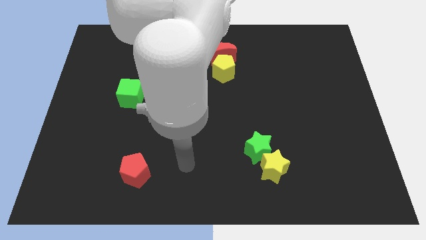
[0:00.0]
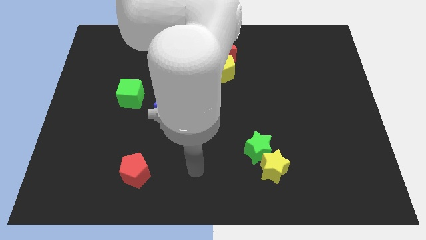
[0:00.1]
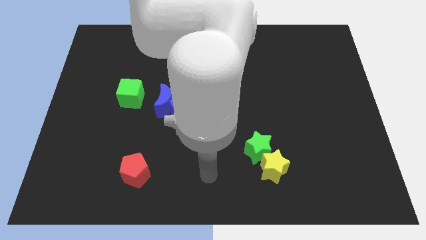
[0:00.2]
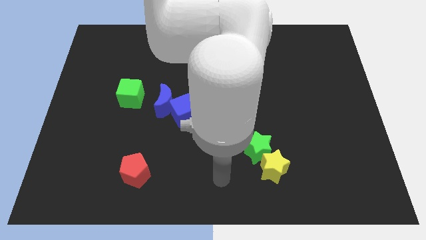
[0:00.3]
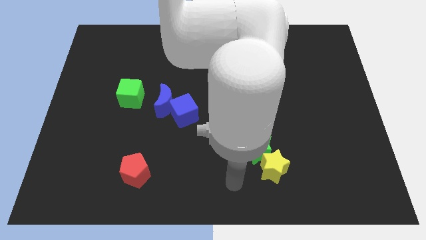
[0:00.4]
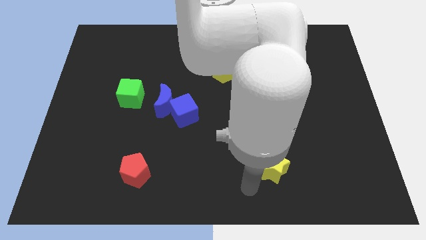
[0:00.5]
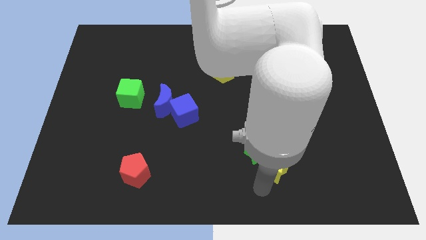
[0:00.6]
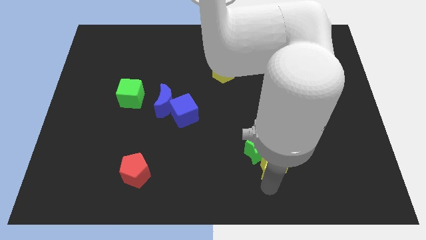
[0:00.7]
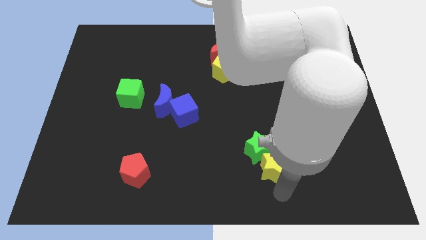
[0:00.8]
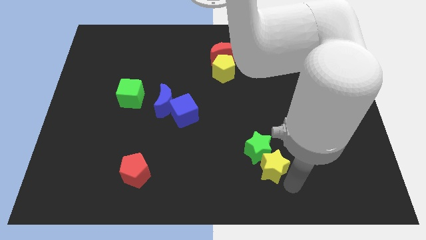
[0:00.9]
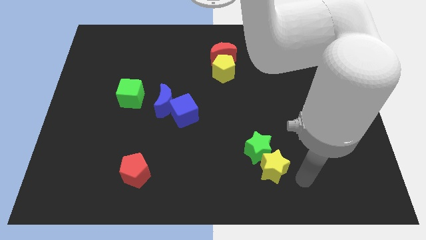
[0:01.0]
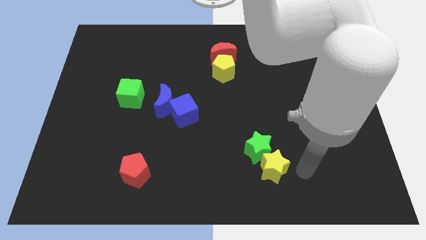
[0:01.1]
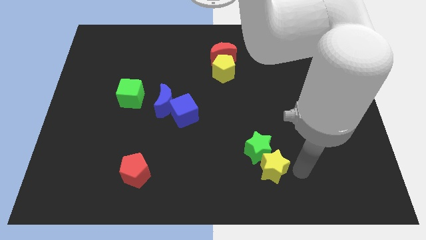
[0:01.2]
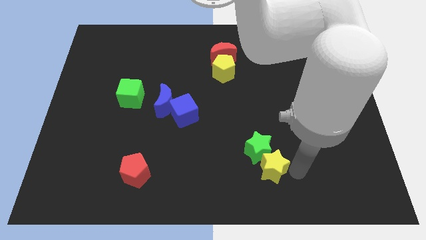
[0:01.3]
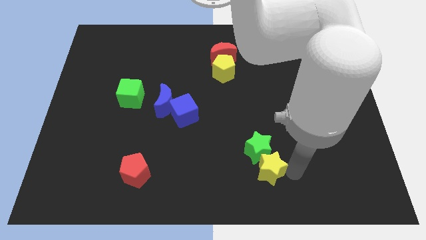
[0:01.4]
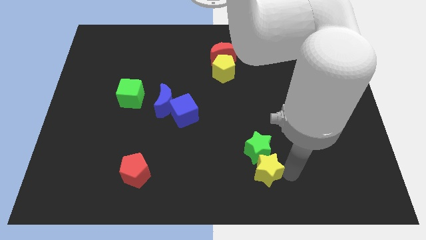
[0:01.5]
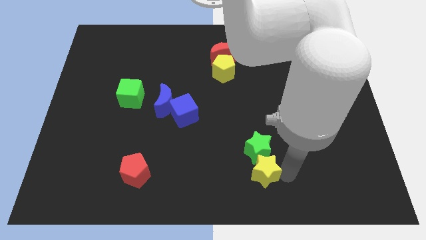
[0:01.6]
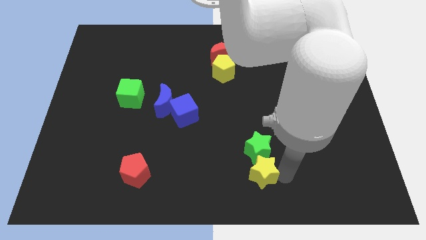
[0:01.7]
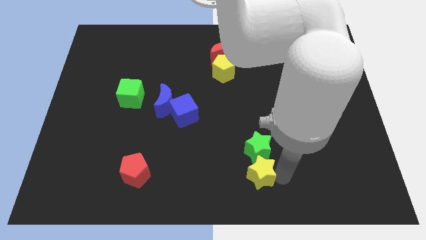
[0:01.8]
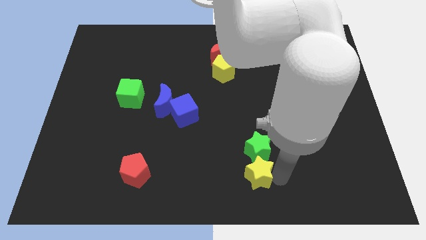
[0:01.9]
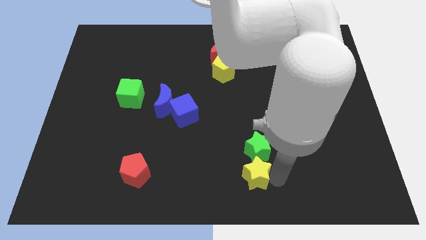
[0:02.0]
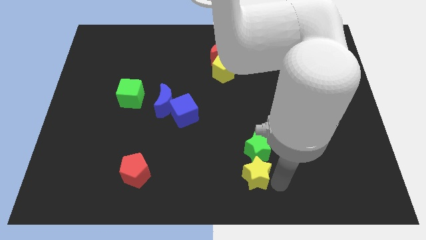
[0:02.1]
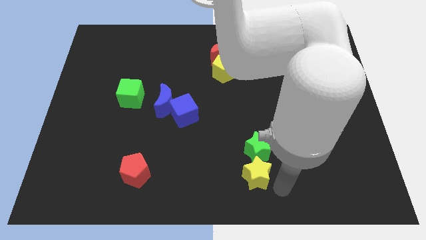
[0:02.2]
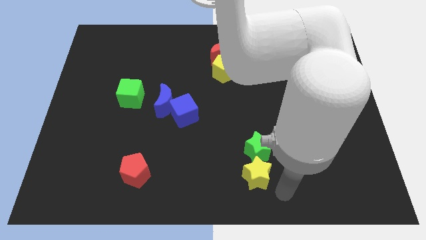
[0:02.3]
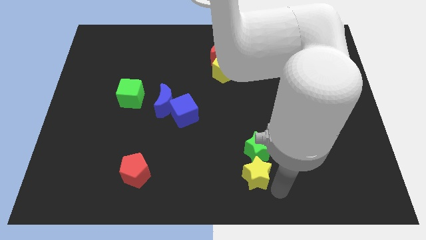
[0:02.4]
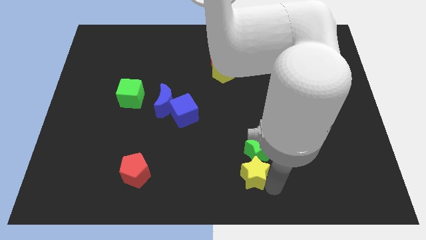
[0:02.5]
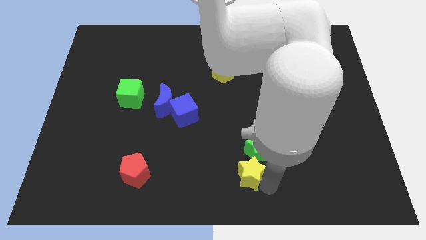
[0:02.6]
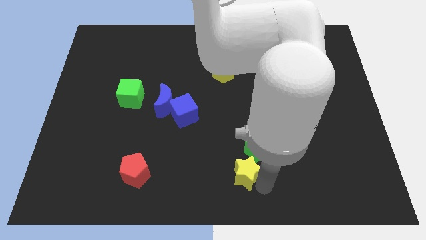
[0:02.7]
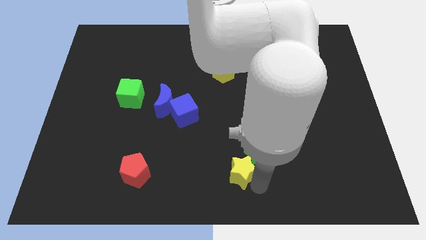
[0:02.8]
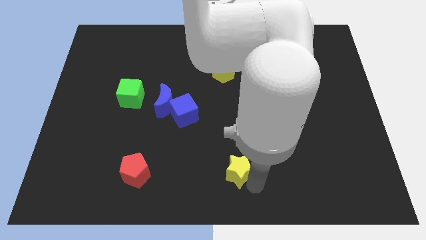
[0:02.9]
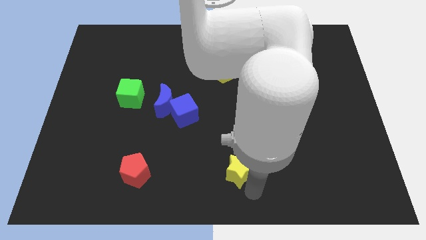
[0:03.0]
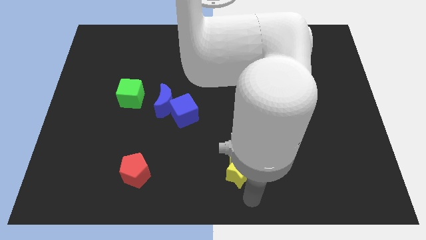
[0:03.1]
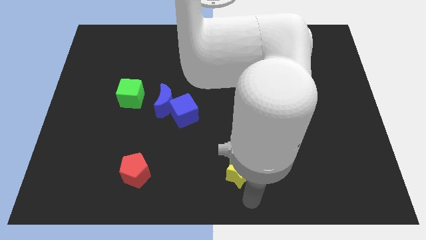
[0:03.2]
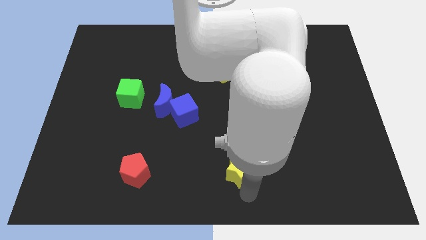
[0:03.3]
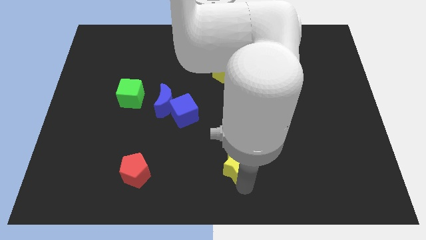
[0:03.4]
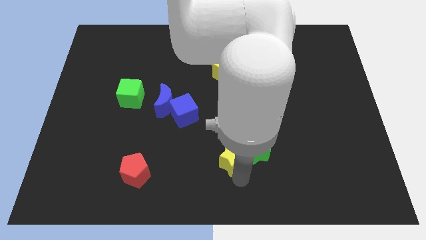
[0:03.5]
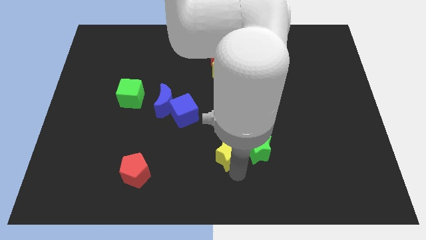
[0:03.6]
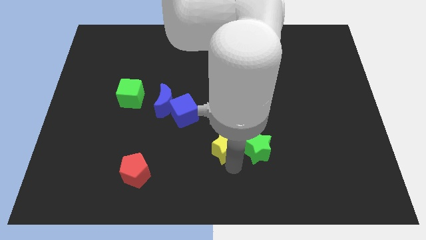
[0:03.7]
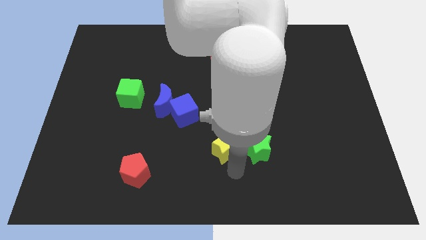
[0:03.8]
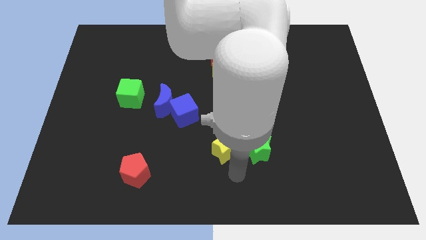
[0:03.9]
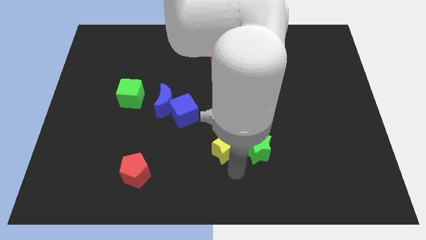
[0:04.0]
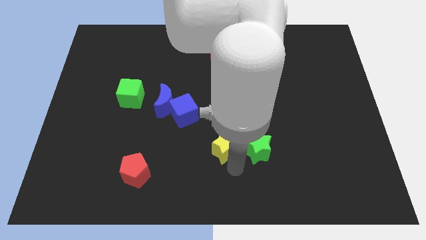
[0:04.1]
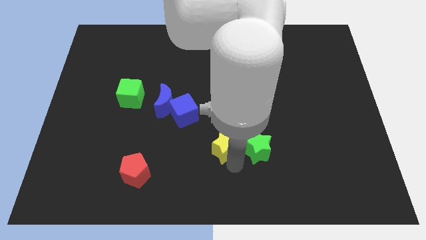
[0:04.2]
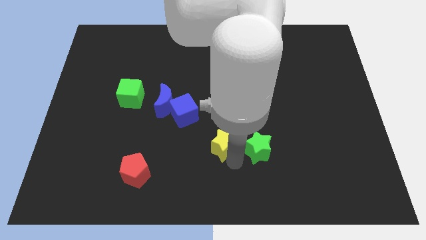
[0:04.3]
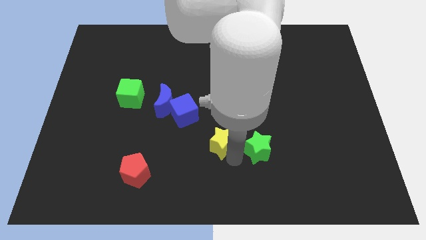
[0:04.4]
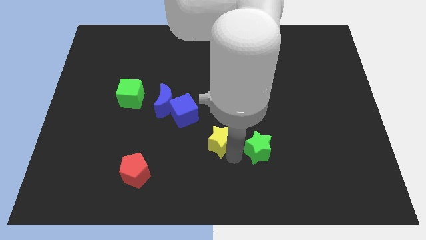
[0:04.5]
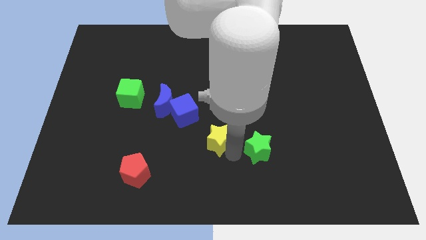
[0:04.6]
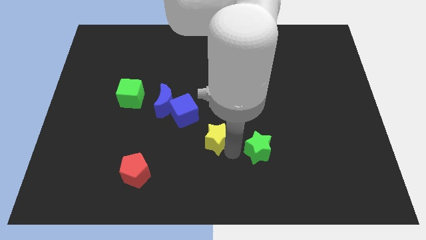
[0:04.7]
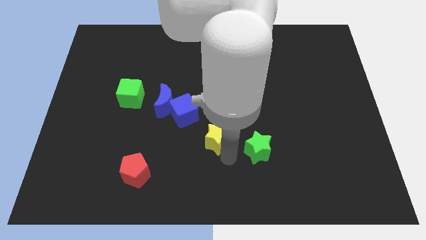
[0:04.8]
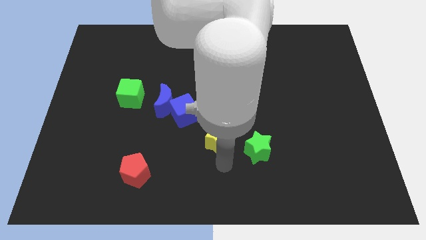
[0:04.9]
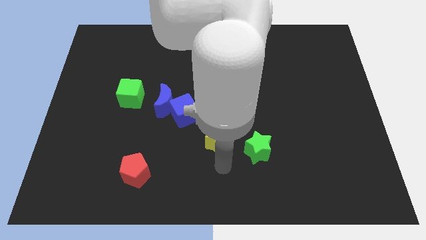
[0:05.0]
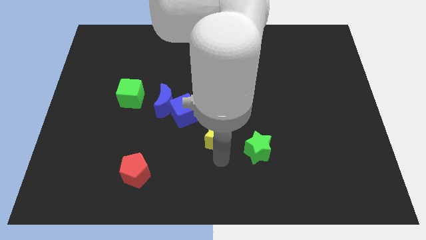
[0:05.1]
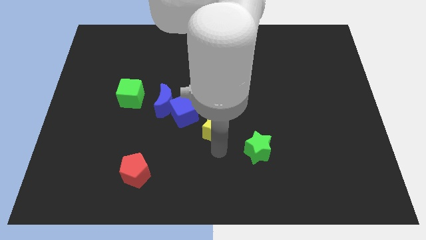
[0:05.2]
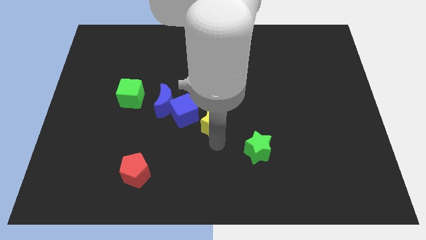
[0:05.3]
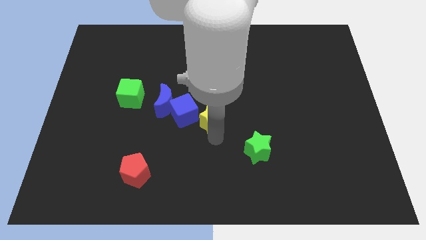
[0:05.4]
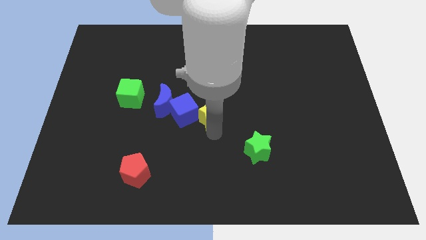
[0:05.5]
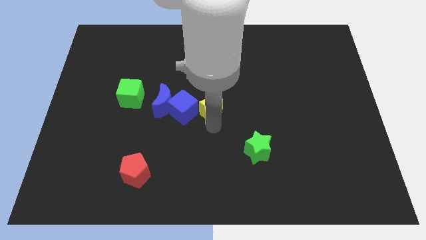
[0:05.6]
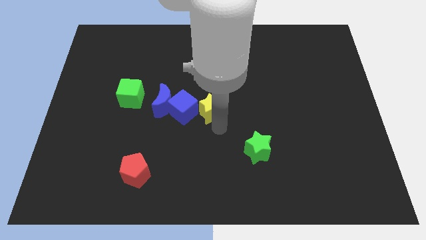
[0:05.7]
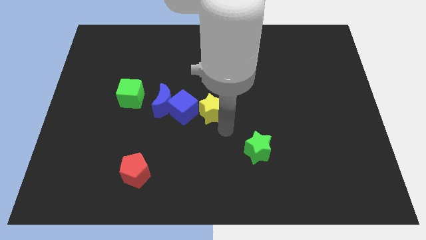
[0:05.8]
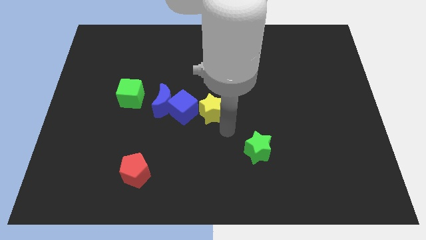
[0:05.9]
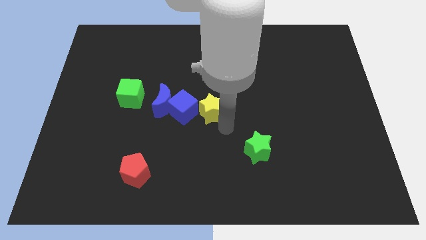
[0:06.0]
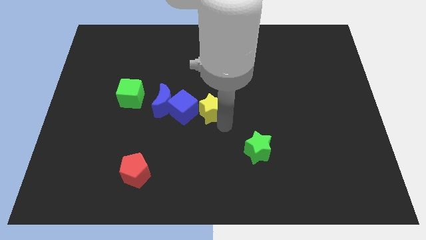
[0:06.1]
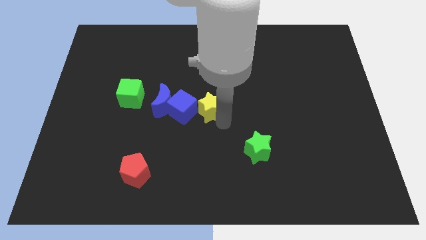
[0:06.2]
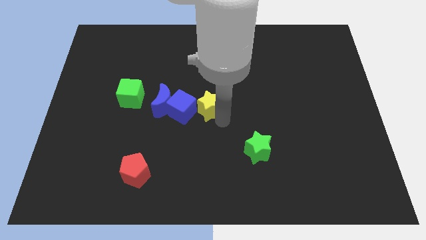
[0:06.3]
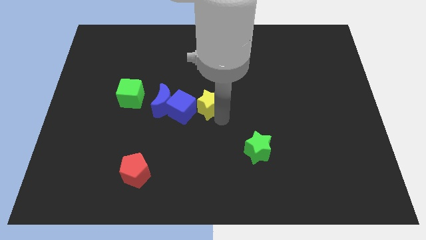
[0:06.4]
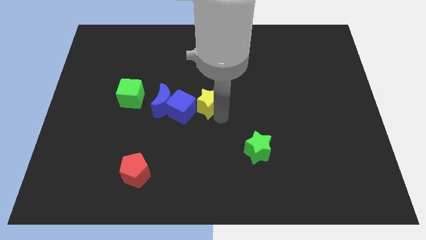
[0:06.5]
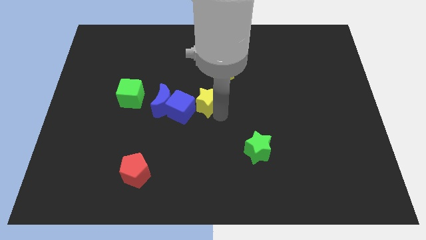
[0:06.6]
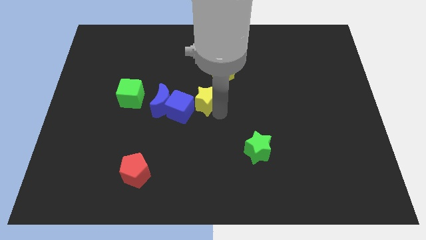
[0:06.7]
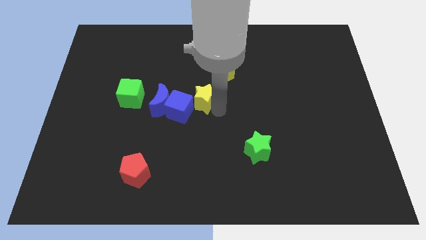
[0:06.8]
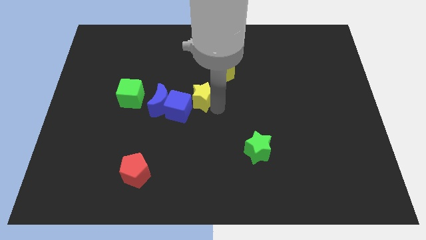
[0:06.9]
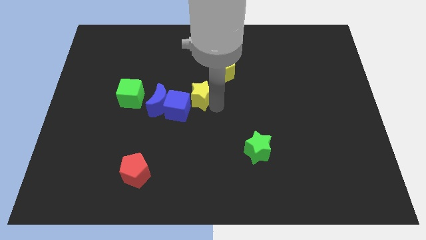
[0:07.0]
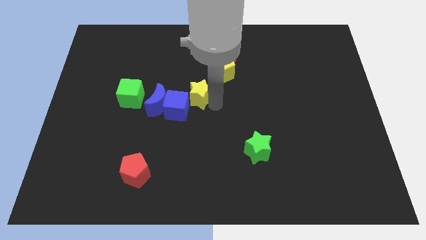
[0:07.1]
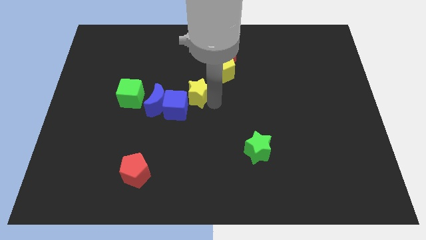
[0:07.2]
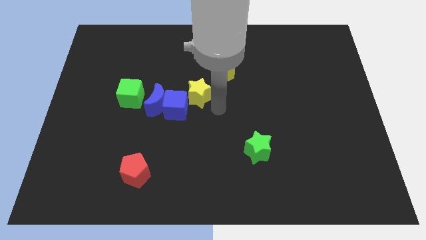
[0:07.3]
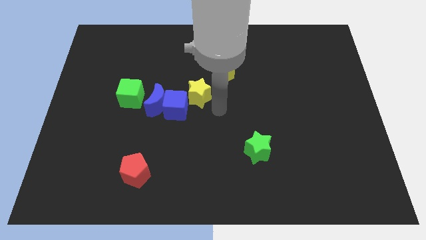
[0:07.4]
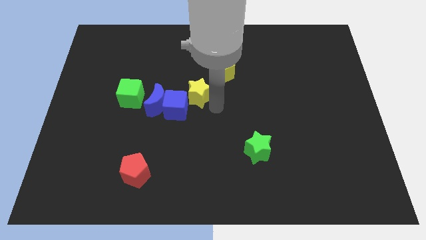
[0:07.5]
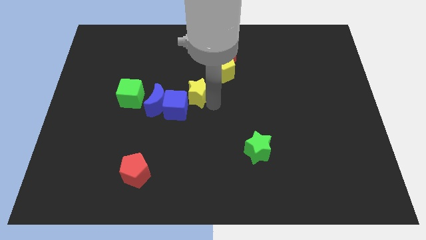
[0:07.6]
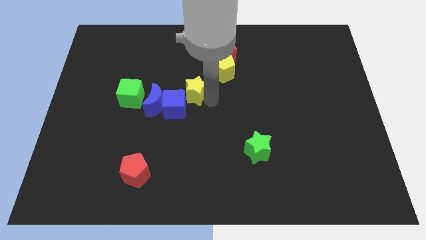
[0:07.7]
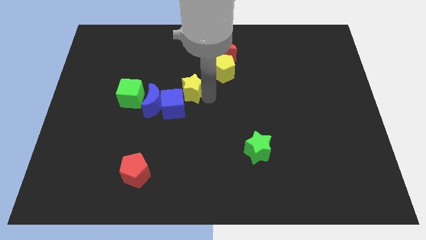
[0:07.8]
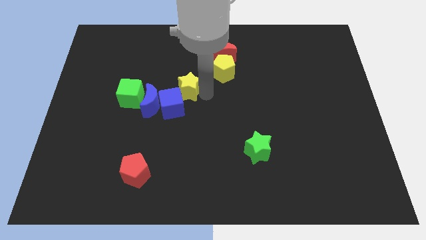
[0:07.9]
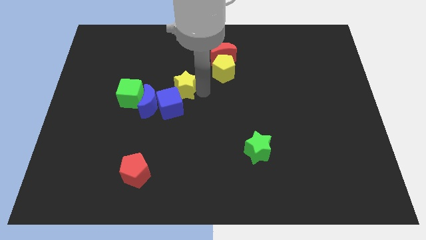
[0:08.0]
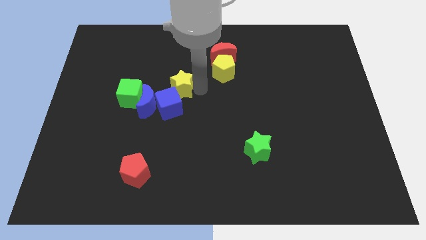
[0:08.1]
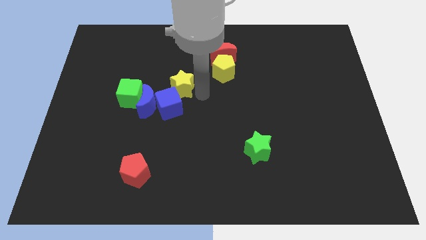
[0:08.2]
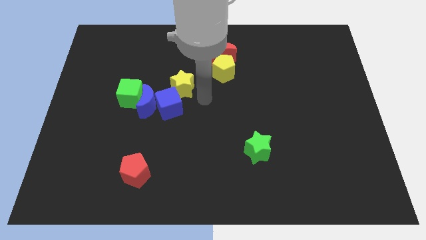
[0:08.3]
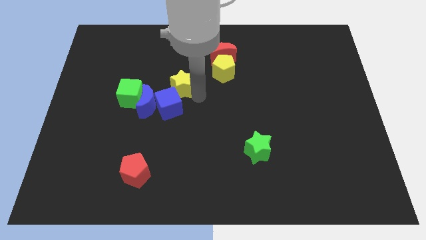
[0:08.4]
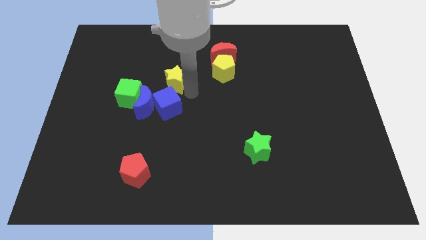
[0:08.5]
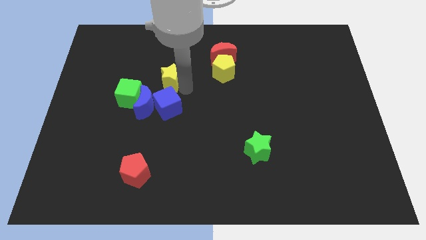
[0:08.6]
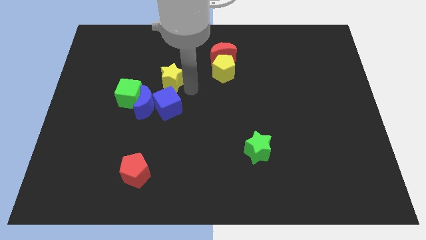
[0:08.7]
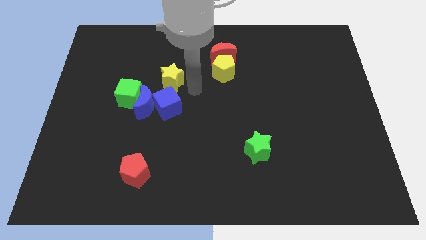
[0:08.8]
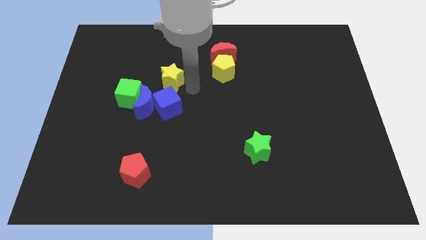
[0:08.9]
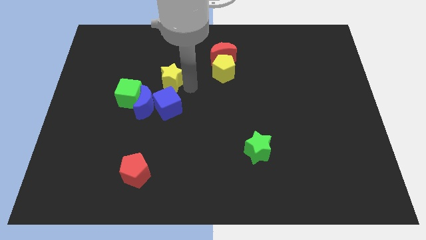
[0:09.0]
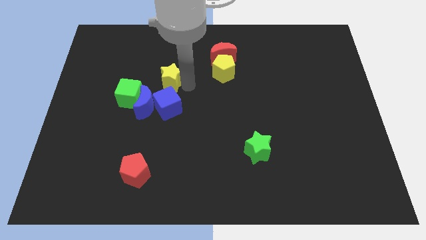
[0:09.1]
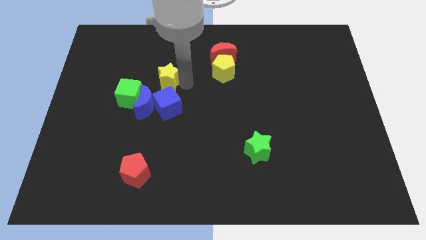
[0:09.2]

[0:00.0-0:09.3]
slide the yellow star to the top side of the blue moon
